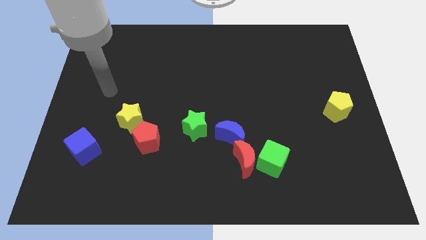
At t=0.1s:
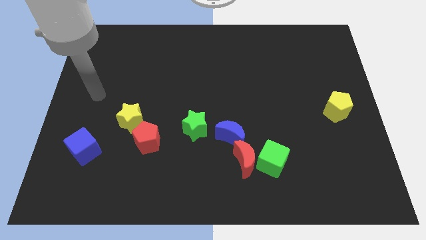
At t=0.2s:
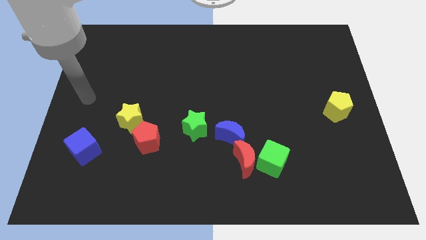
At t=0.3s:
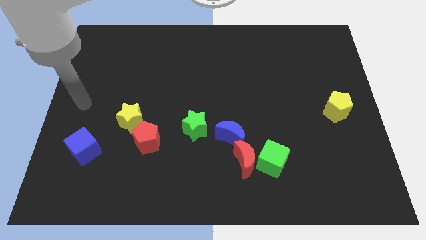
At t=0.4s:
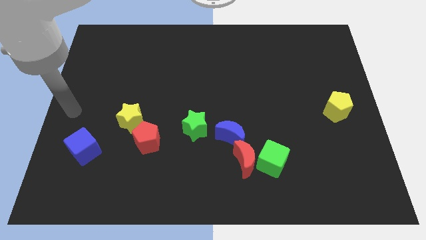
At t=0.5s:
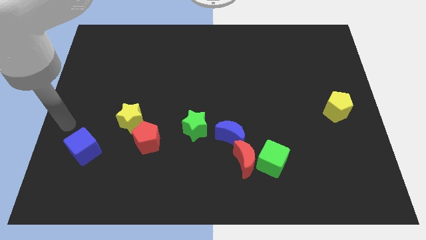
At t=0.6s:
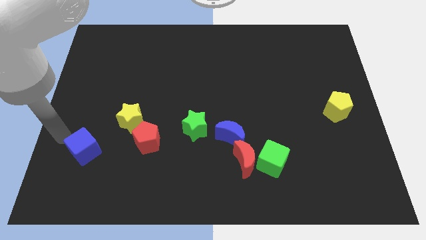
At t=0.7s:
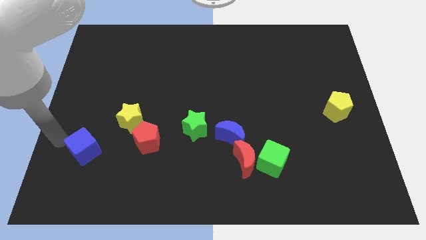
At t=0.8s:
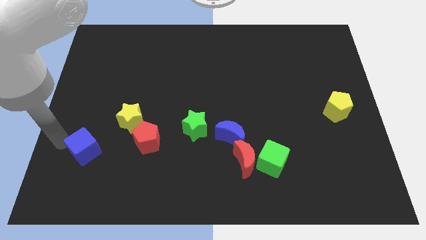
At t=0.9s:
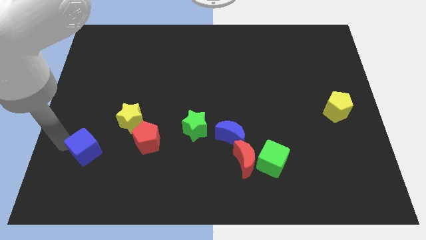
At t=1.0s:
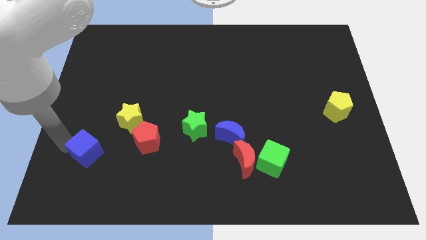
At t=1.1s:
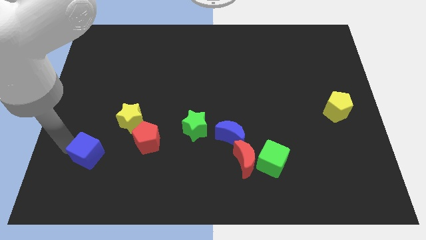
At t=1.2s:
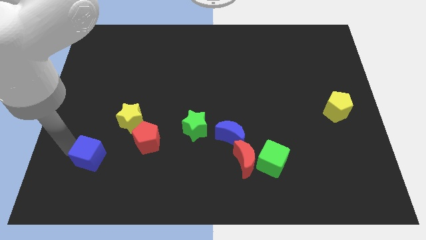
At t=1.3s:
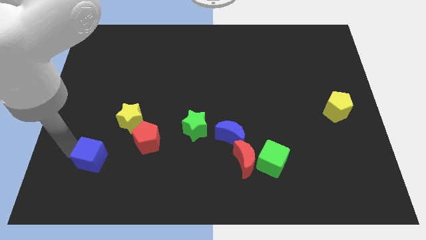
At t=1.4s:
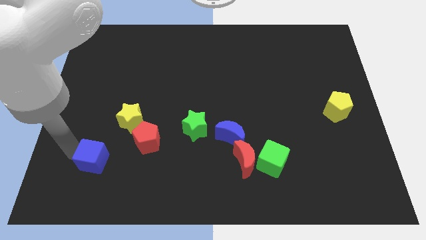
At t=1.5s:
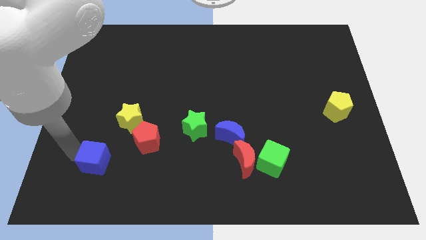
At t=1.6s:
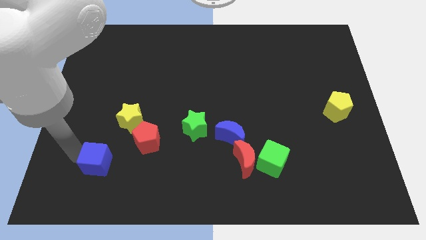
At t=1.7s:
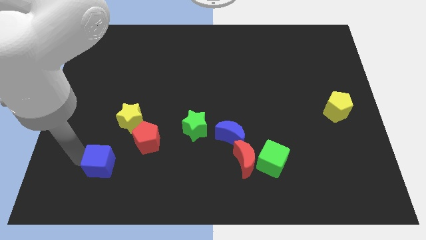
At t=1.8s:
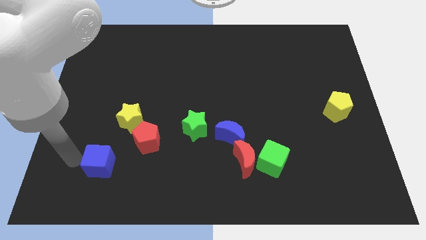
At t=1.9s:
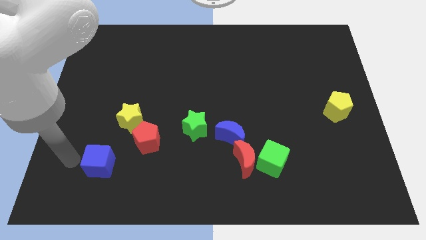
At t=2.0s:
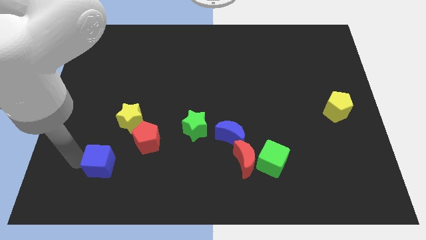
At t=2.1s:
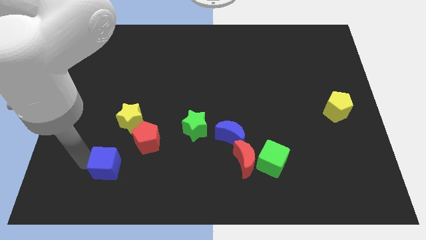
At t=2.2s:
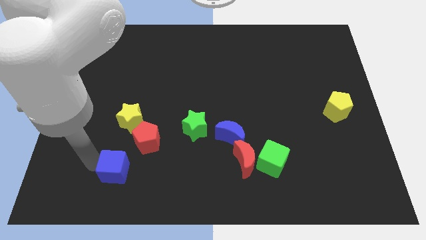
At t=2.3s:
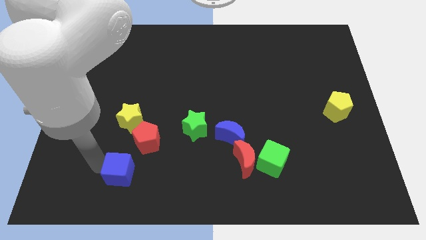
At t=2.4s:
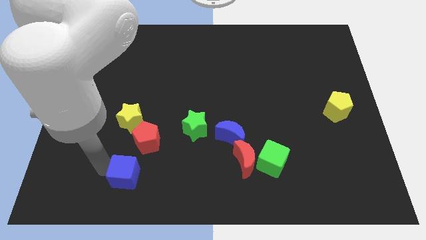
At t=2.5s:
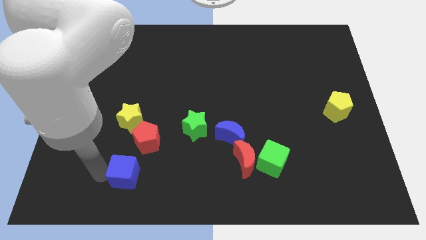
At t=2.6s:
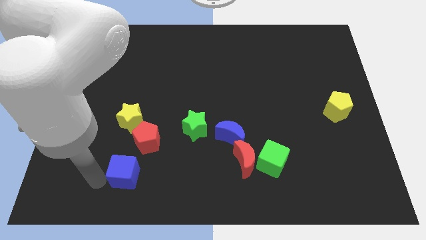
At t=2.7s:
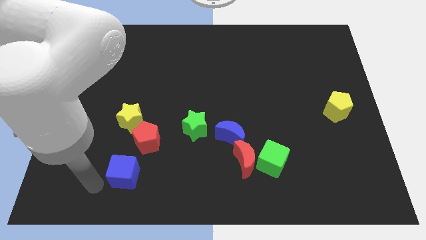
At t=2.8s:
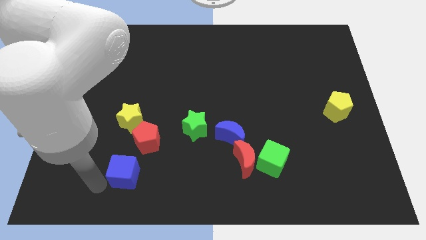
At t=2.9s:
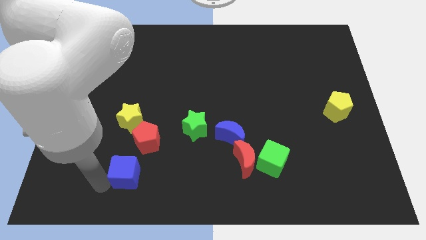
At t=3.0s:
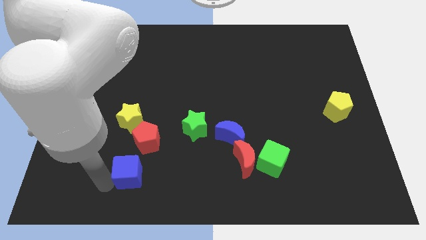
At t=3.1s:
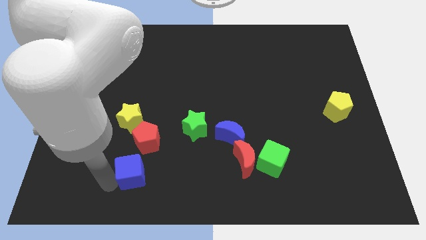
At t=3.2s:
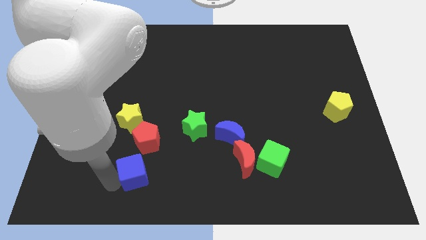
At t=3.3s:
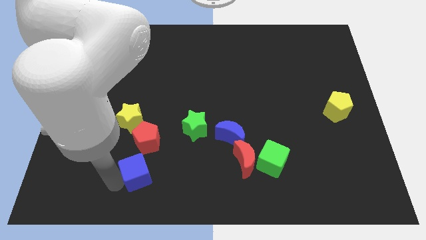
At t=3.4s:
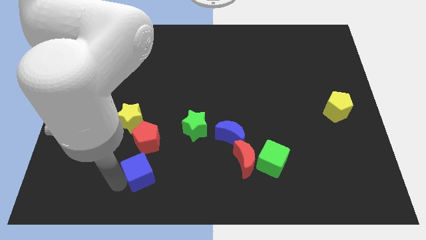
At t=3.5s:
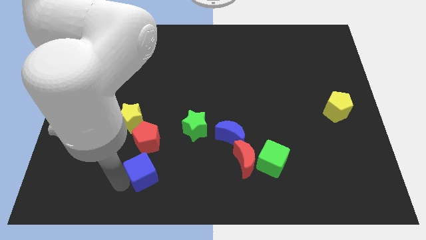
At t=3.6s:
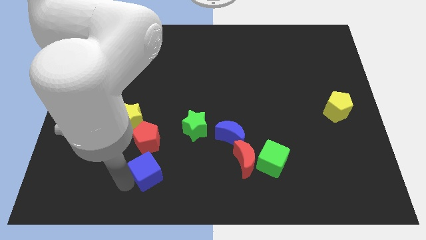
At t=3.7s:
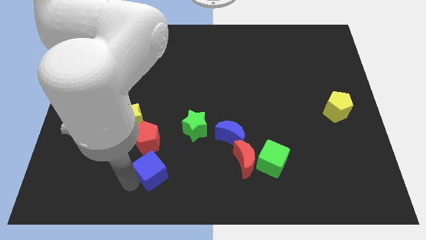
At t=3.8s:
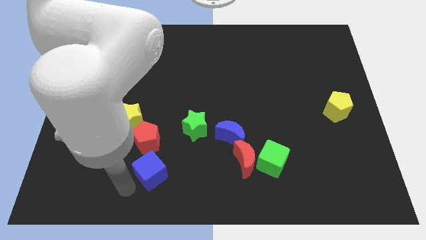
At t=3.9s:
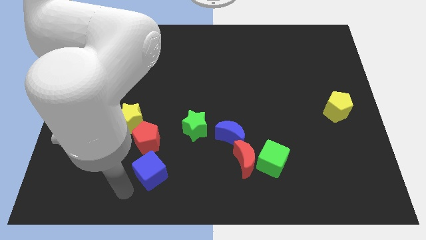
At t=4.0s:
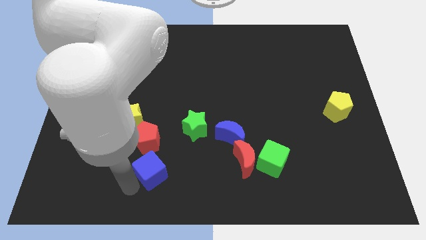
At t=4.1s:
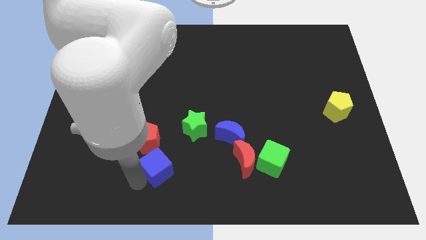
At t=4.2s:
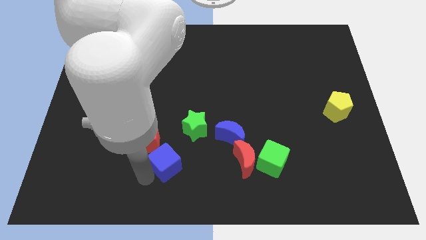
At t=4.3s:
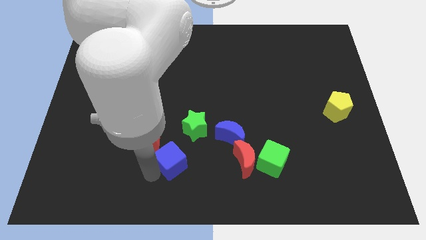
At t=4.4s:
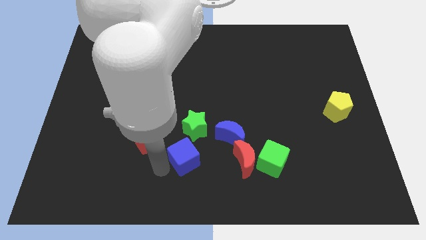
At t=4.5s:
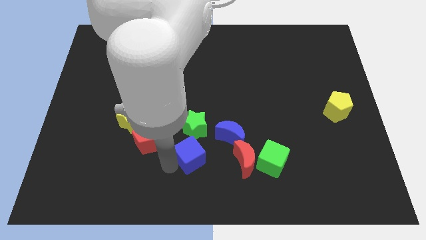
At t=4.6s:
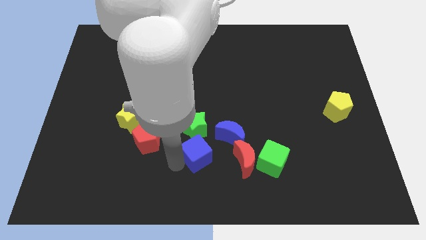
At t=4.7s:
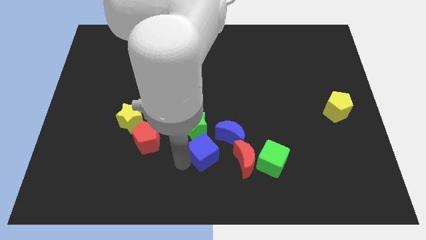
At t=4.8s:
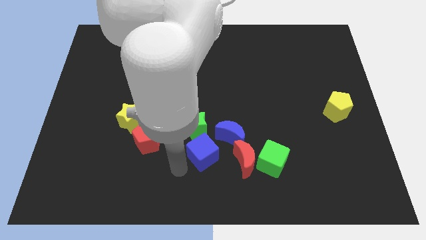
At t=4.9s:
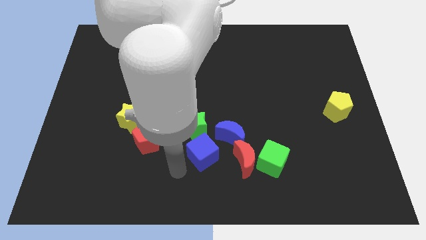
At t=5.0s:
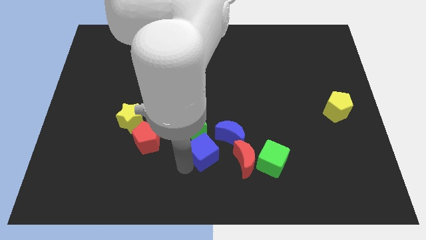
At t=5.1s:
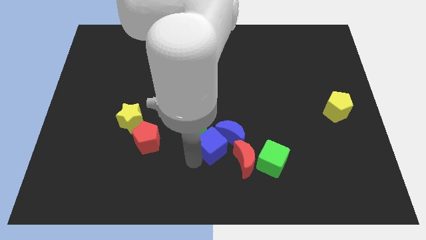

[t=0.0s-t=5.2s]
move the blue cube to the blue moon

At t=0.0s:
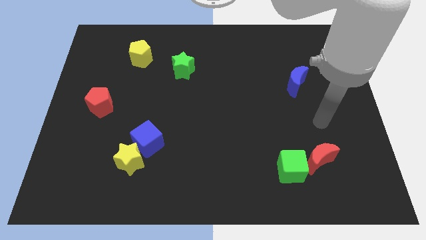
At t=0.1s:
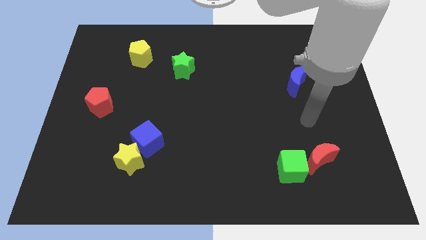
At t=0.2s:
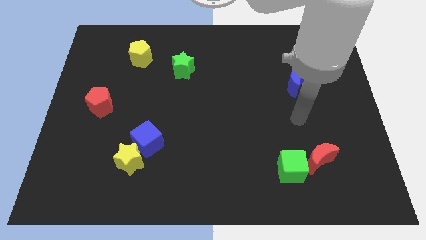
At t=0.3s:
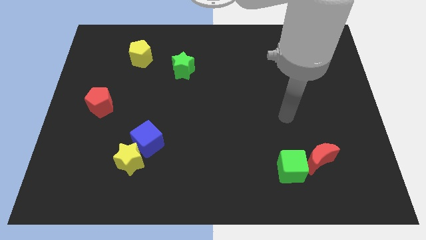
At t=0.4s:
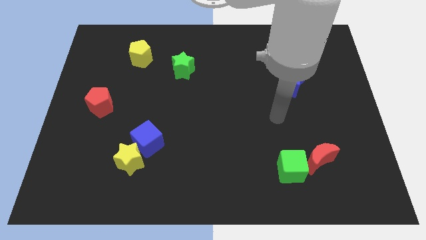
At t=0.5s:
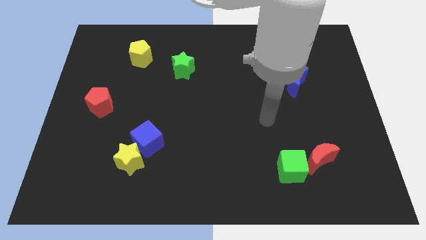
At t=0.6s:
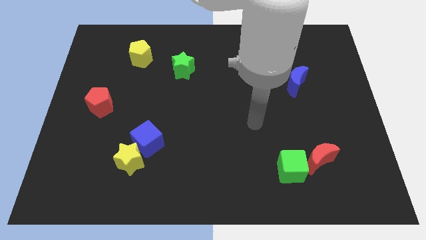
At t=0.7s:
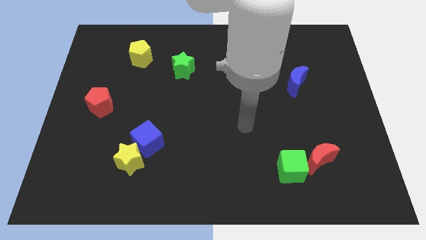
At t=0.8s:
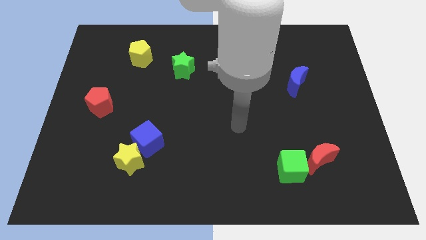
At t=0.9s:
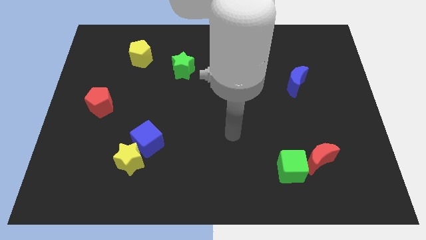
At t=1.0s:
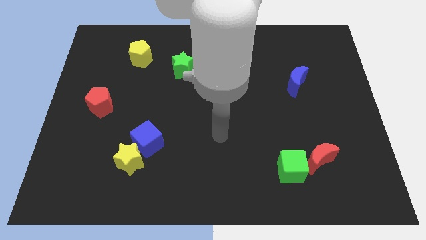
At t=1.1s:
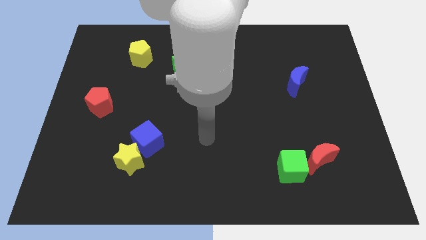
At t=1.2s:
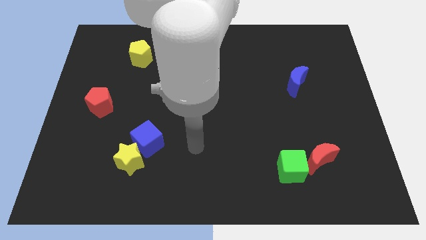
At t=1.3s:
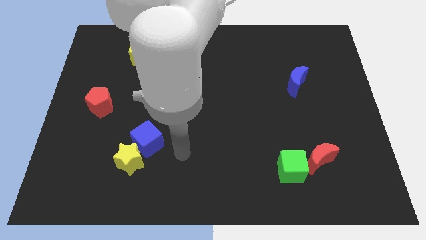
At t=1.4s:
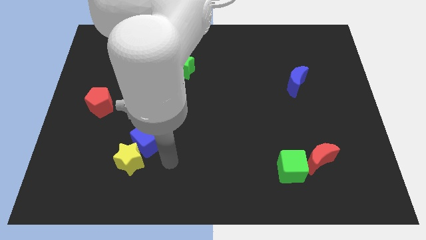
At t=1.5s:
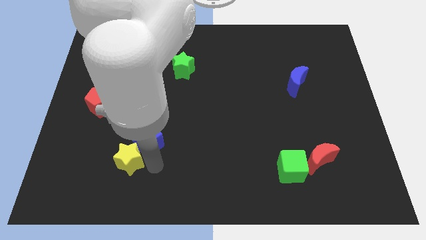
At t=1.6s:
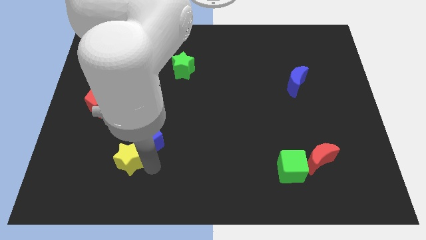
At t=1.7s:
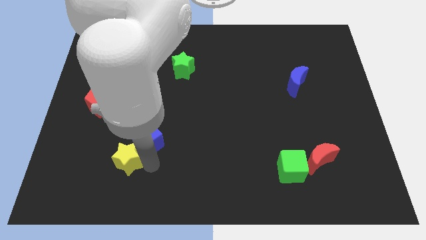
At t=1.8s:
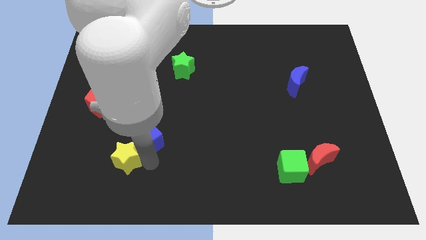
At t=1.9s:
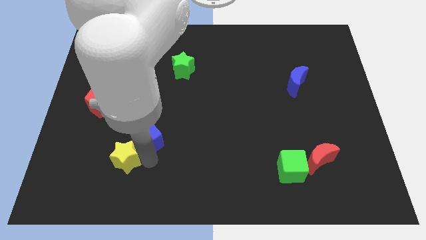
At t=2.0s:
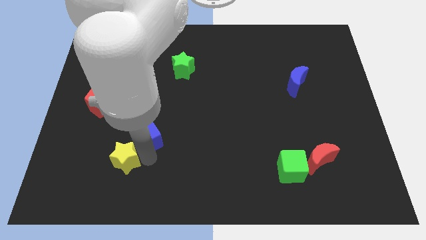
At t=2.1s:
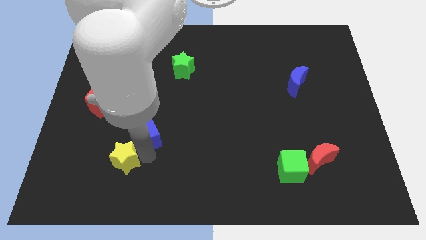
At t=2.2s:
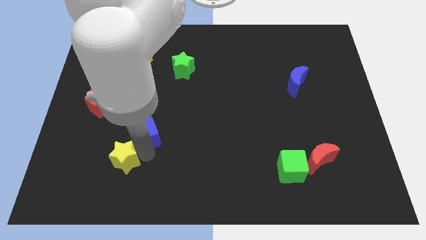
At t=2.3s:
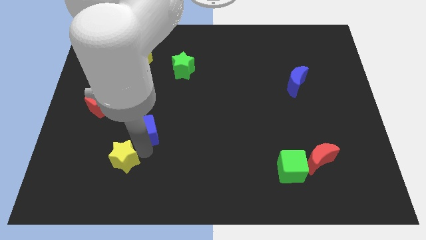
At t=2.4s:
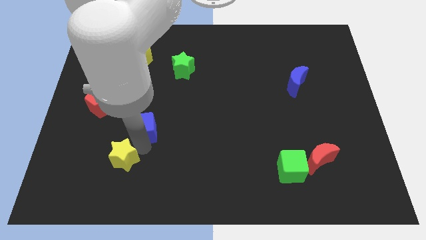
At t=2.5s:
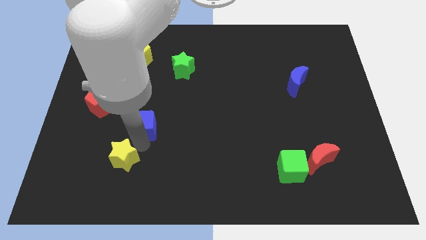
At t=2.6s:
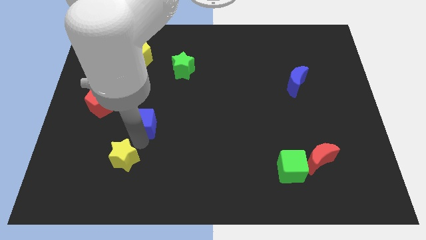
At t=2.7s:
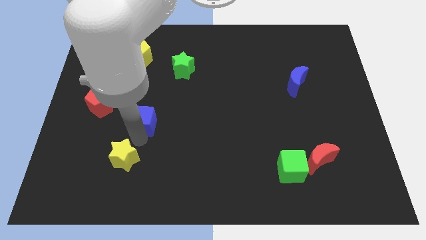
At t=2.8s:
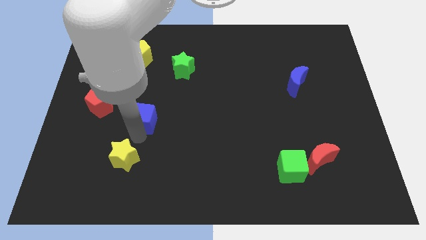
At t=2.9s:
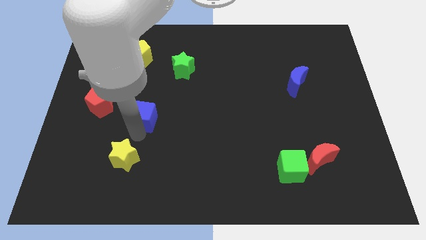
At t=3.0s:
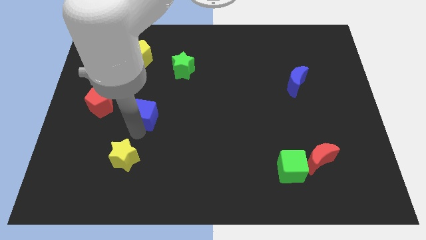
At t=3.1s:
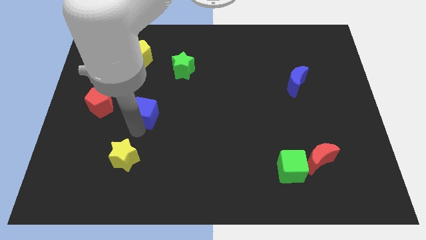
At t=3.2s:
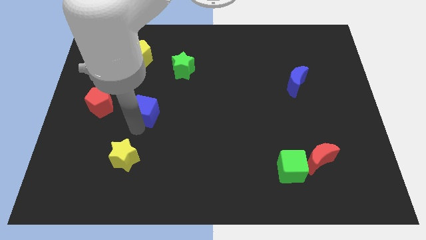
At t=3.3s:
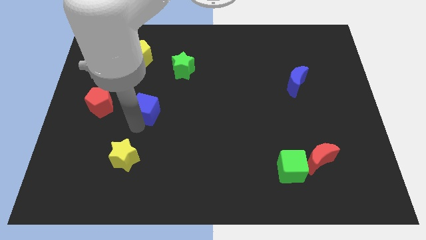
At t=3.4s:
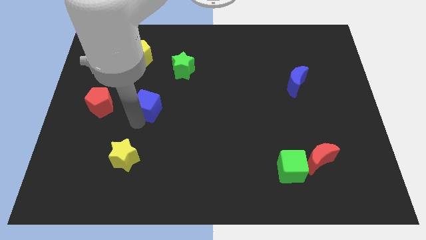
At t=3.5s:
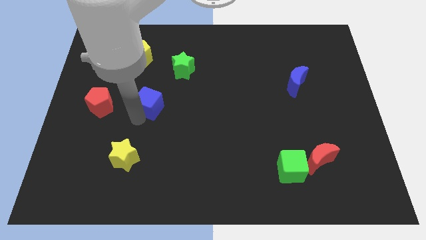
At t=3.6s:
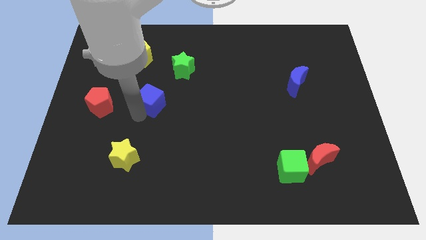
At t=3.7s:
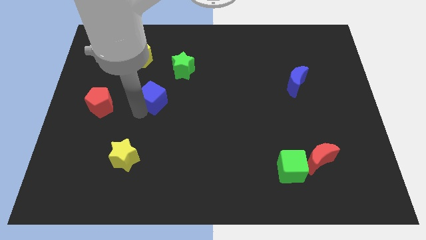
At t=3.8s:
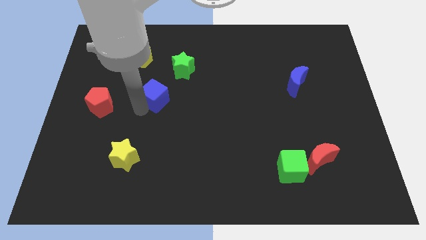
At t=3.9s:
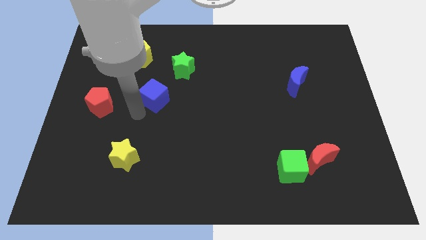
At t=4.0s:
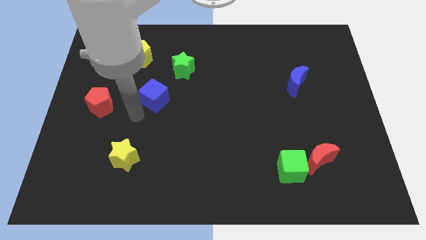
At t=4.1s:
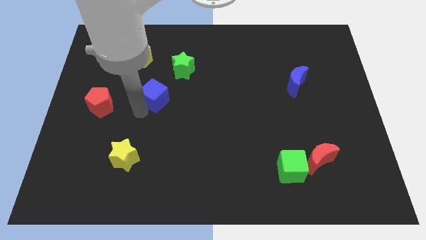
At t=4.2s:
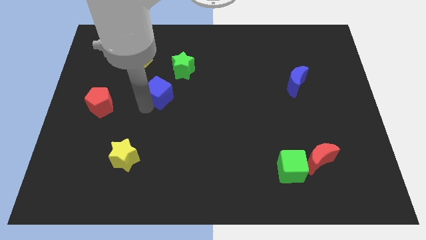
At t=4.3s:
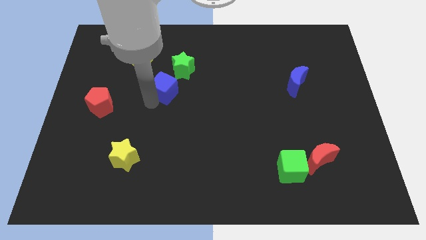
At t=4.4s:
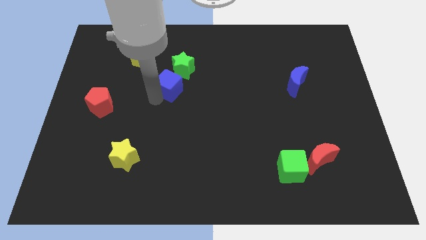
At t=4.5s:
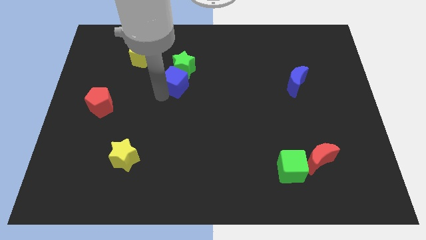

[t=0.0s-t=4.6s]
move the blue cube to the green star
